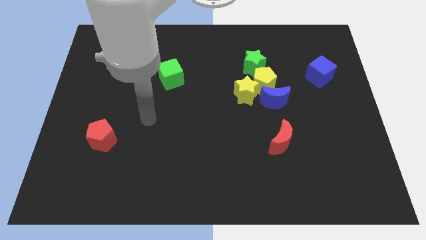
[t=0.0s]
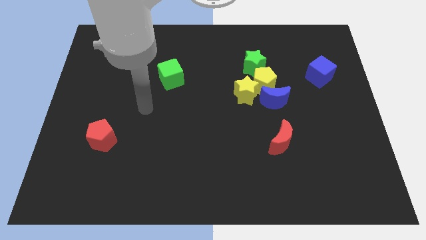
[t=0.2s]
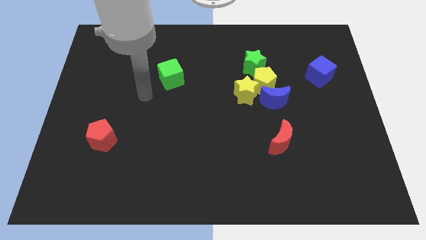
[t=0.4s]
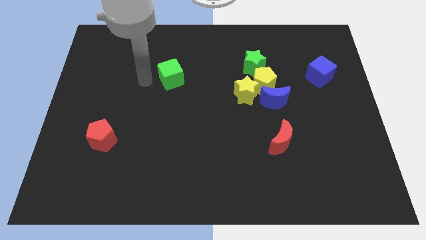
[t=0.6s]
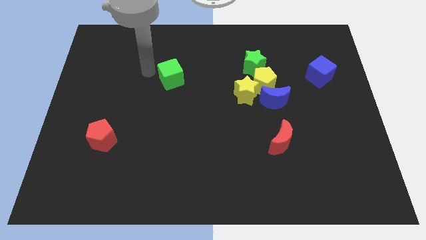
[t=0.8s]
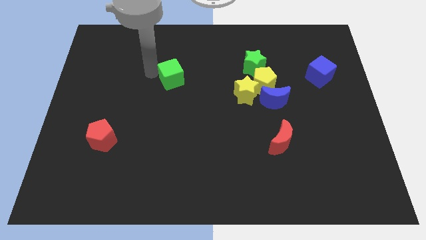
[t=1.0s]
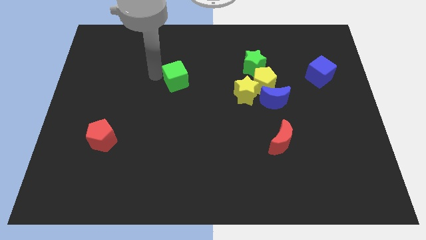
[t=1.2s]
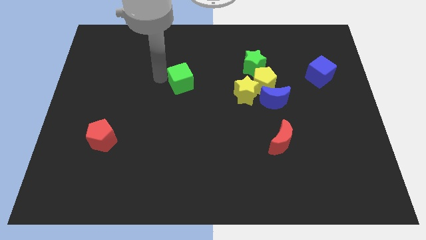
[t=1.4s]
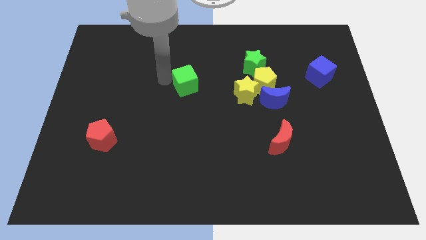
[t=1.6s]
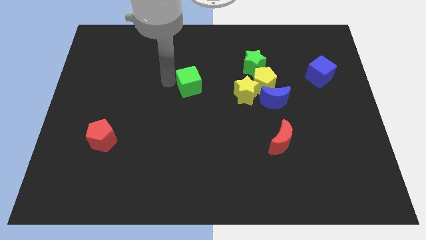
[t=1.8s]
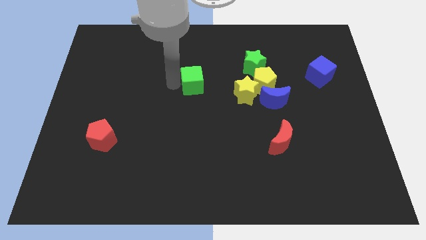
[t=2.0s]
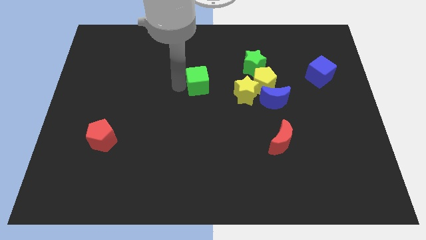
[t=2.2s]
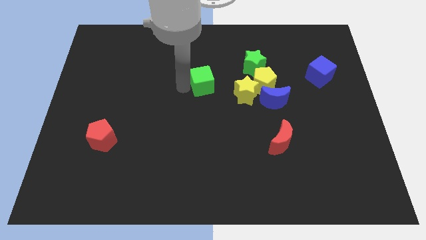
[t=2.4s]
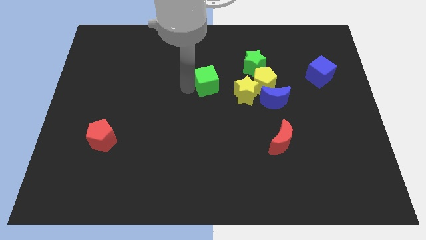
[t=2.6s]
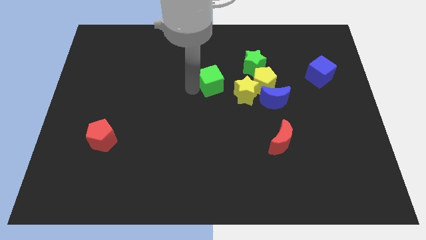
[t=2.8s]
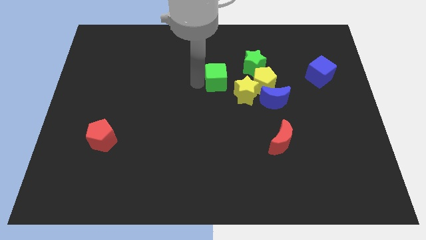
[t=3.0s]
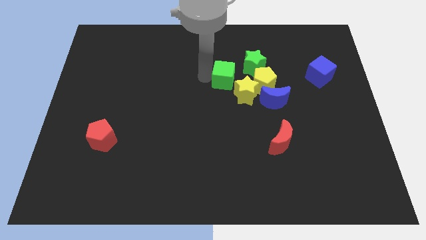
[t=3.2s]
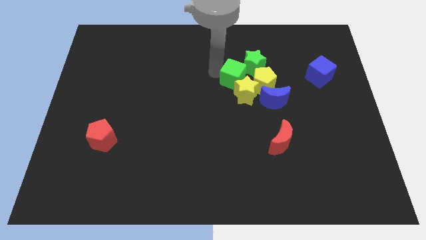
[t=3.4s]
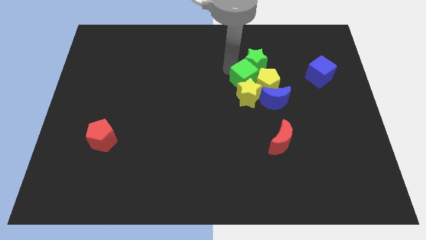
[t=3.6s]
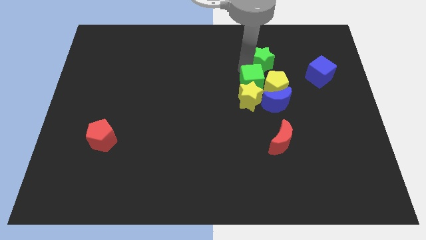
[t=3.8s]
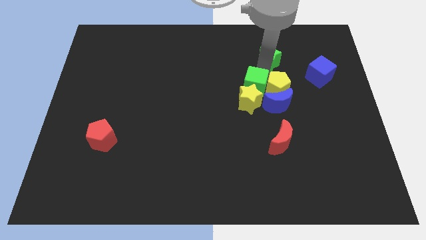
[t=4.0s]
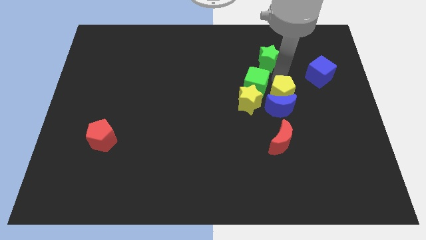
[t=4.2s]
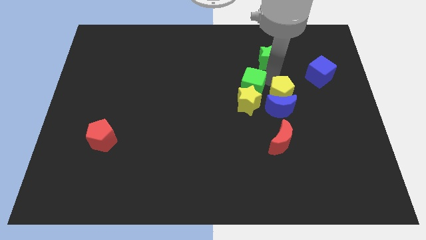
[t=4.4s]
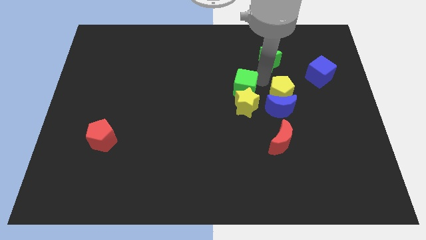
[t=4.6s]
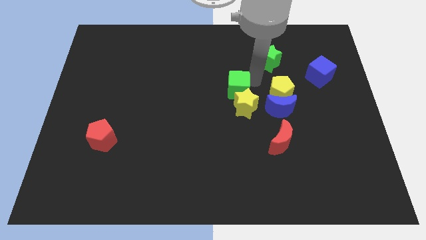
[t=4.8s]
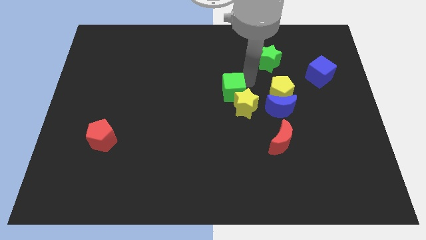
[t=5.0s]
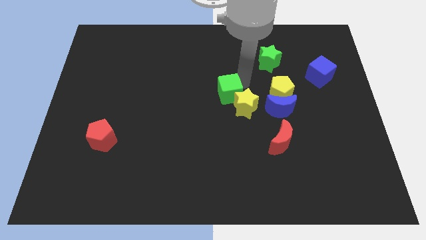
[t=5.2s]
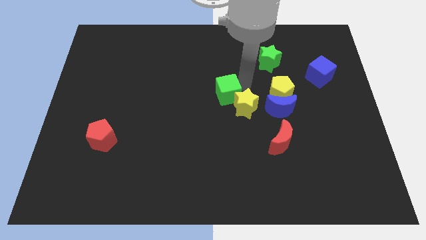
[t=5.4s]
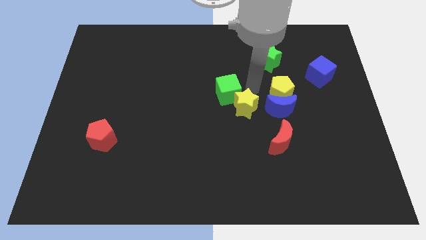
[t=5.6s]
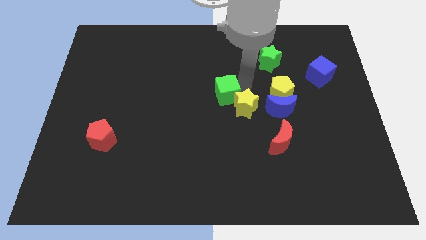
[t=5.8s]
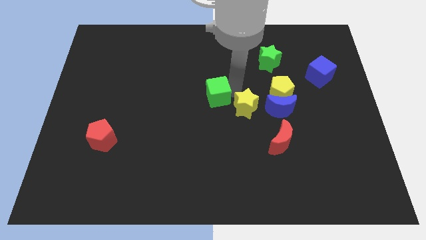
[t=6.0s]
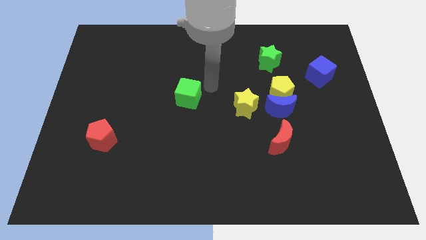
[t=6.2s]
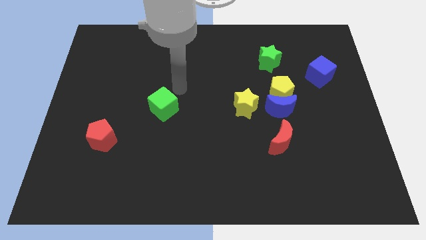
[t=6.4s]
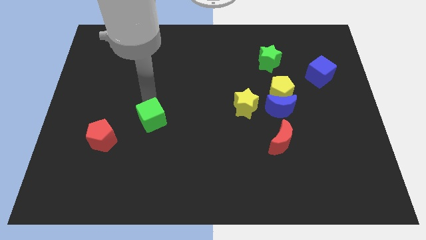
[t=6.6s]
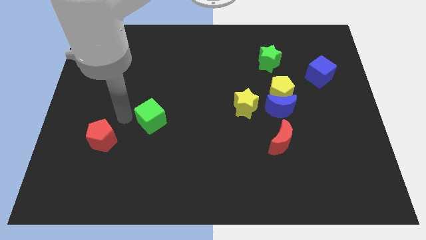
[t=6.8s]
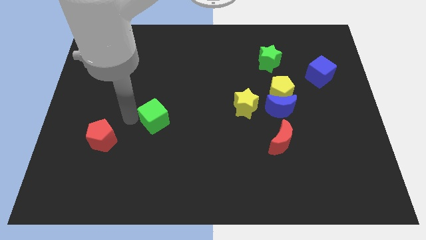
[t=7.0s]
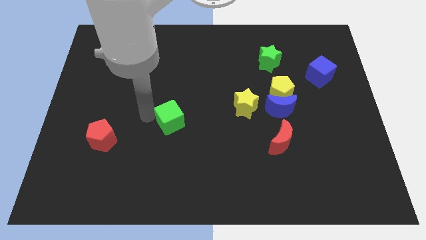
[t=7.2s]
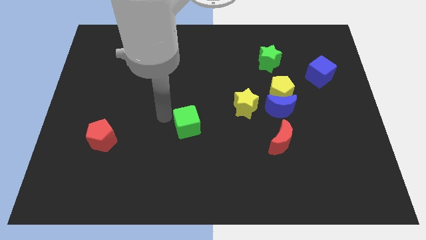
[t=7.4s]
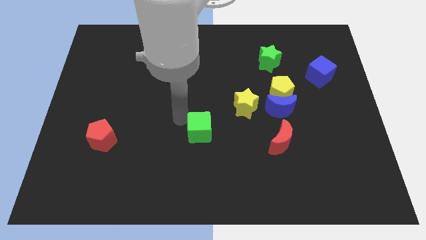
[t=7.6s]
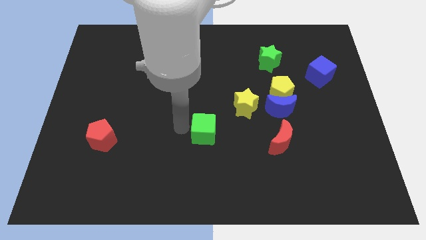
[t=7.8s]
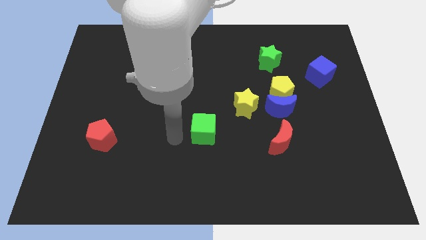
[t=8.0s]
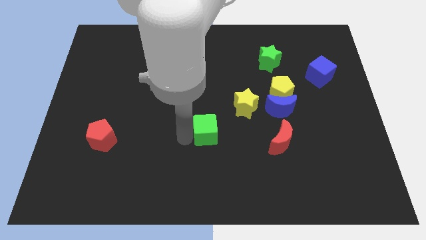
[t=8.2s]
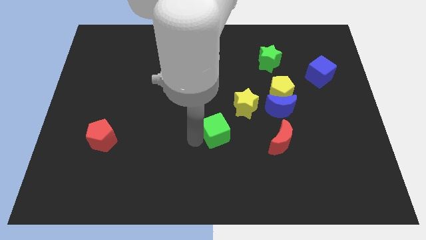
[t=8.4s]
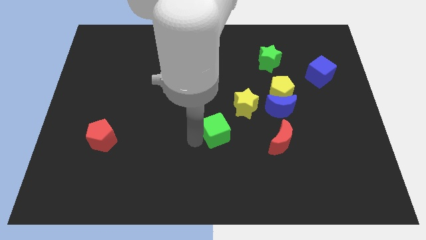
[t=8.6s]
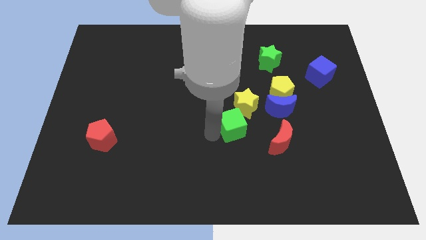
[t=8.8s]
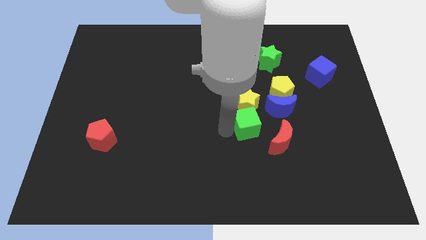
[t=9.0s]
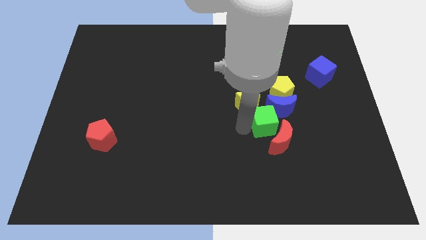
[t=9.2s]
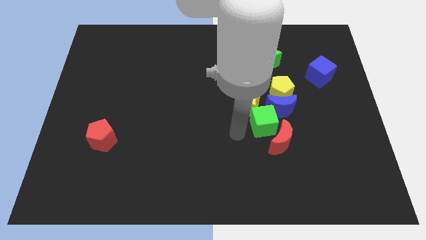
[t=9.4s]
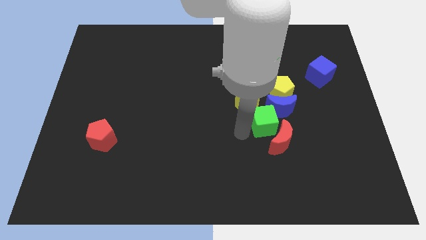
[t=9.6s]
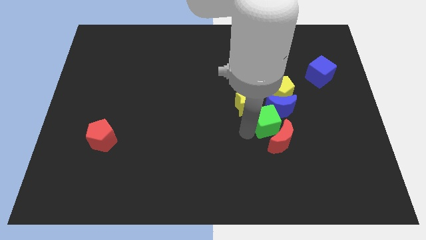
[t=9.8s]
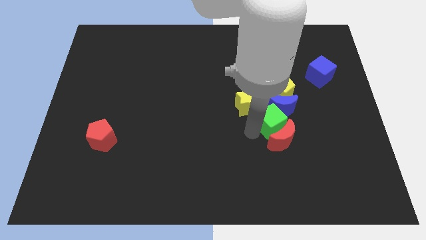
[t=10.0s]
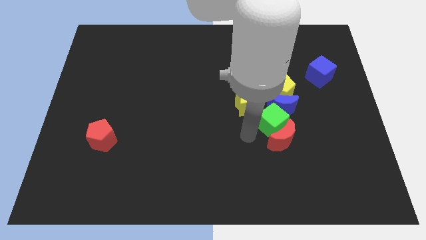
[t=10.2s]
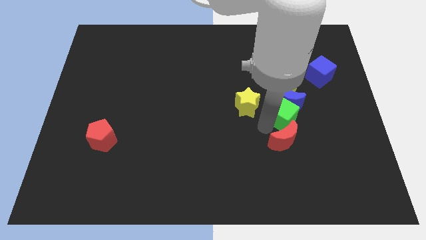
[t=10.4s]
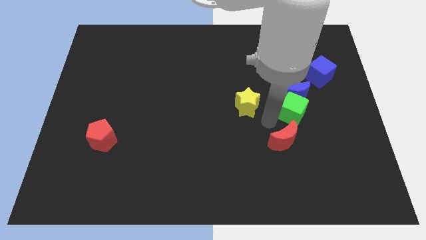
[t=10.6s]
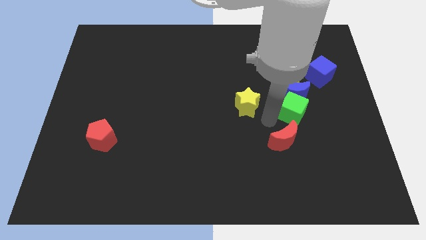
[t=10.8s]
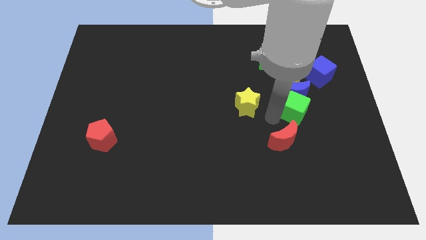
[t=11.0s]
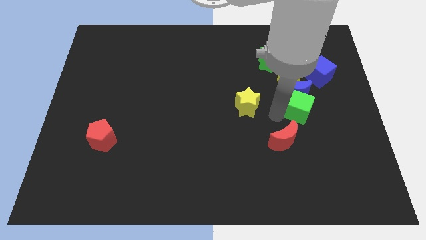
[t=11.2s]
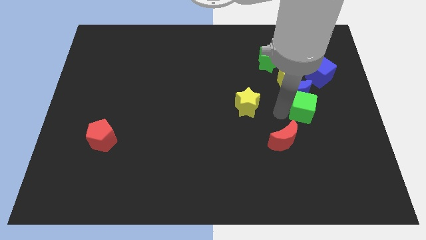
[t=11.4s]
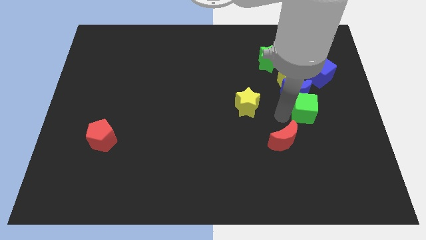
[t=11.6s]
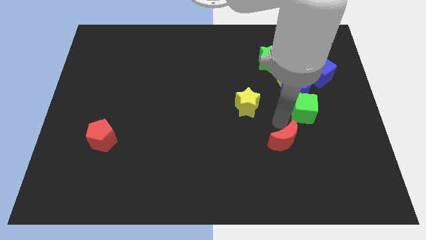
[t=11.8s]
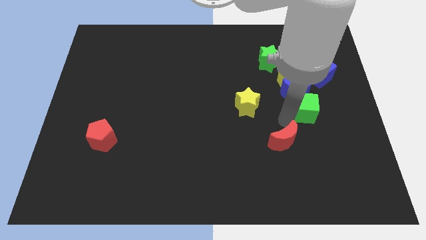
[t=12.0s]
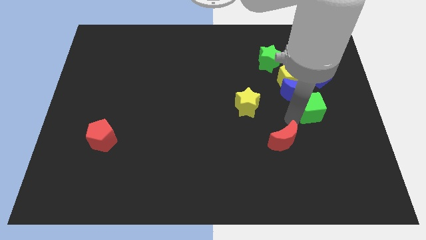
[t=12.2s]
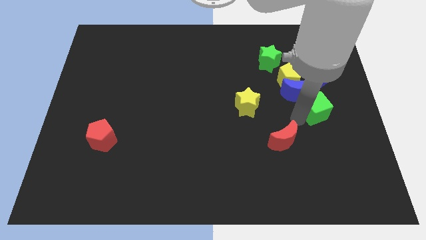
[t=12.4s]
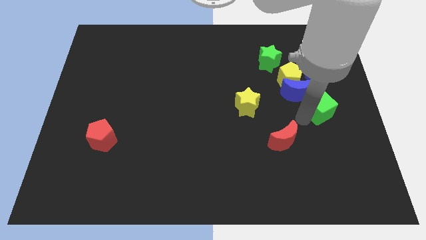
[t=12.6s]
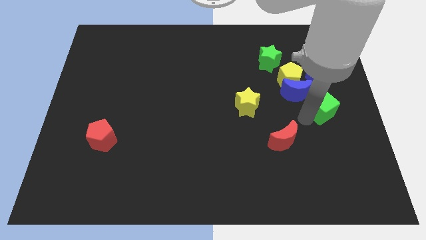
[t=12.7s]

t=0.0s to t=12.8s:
put the green cube to the right side
